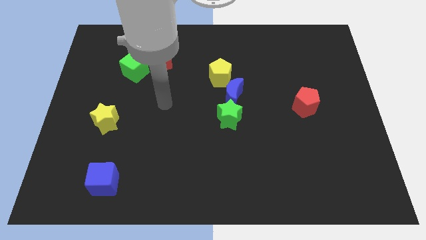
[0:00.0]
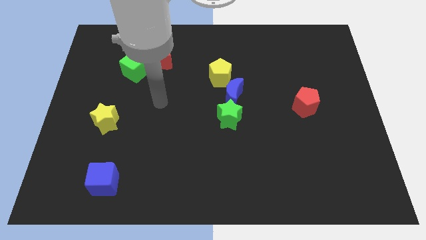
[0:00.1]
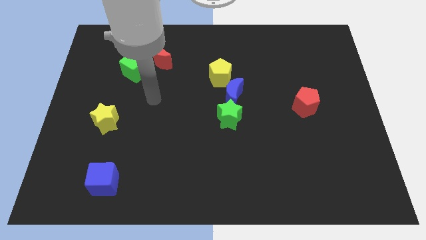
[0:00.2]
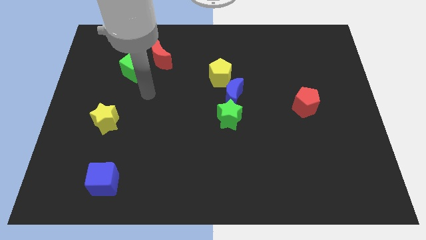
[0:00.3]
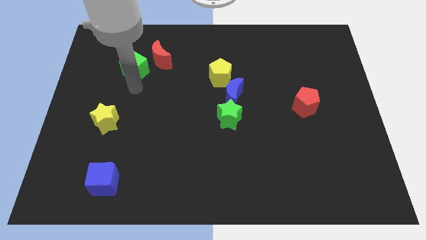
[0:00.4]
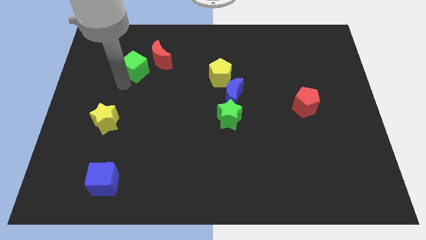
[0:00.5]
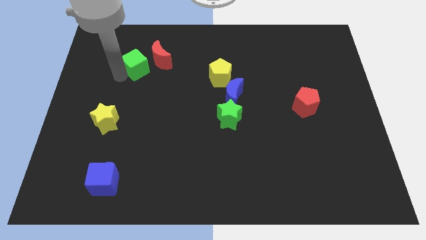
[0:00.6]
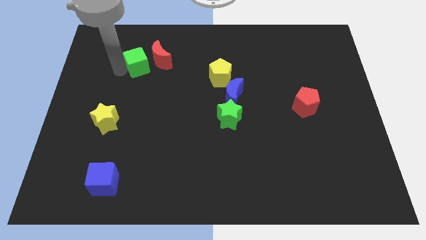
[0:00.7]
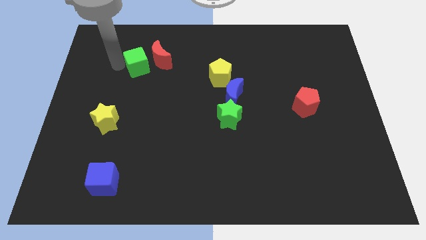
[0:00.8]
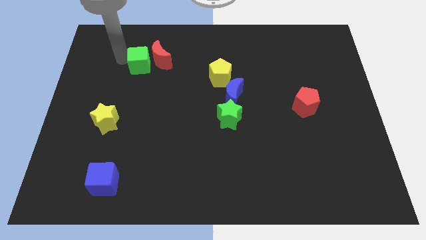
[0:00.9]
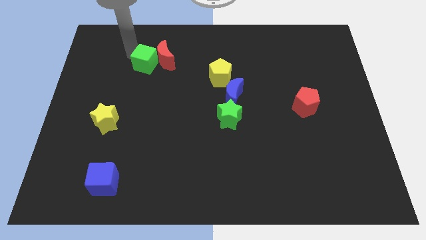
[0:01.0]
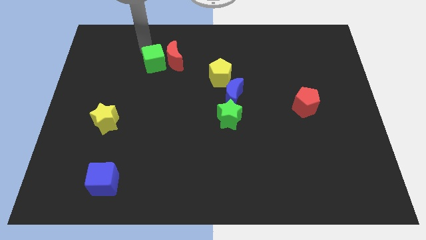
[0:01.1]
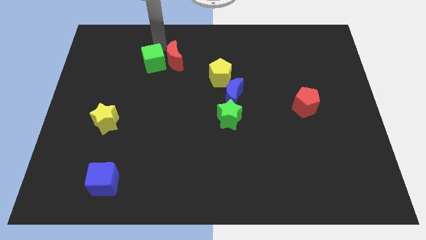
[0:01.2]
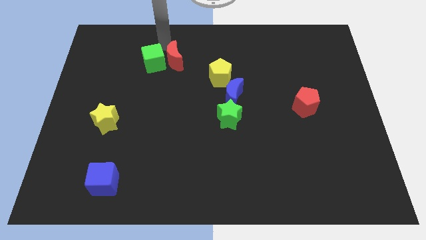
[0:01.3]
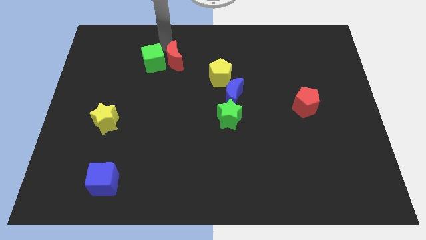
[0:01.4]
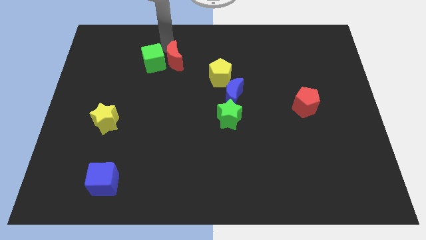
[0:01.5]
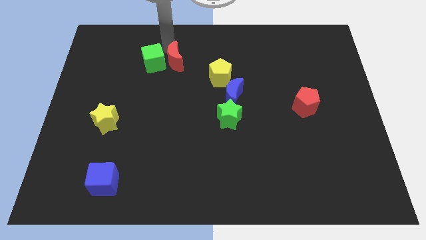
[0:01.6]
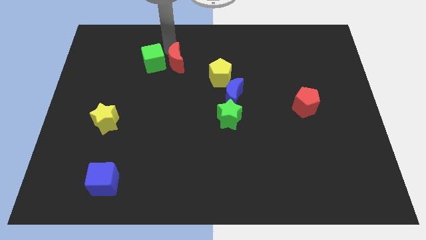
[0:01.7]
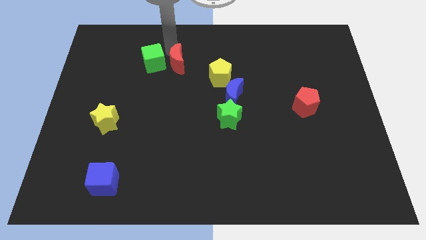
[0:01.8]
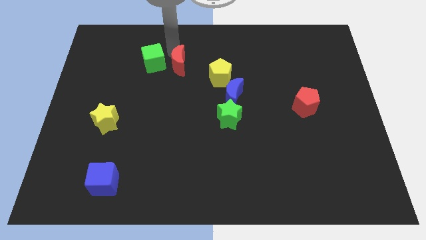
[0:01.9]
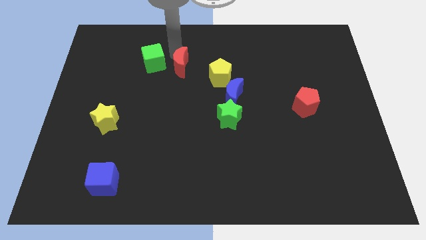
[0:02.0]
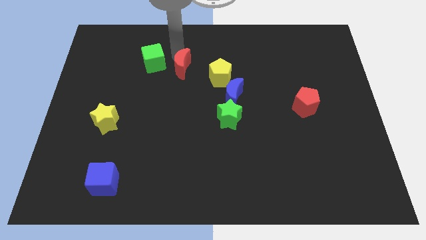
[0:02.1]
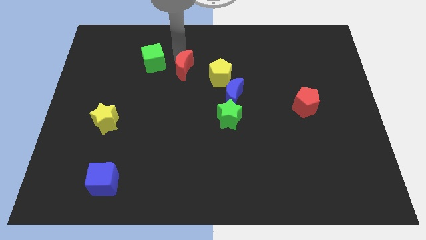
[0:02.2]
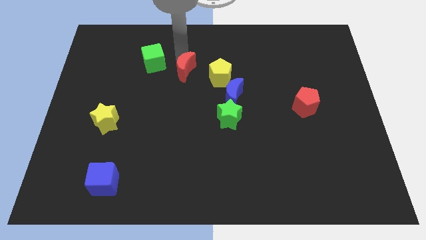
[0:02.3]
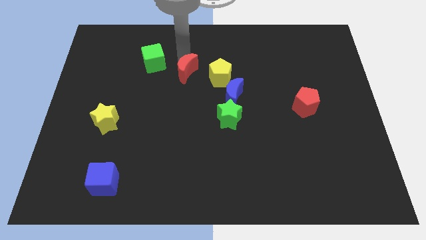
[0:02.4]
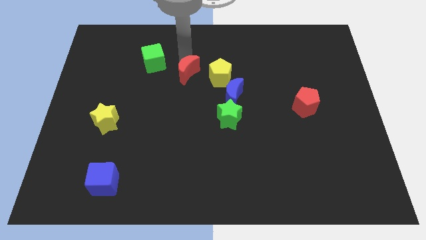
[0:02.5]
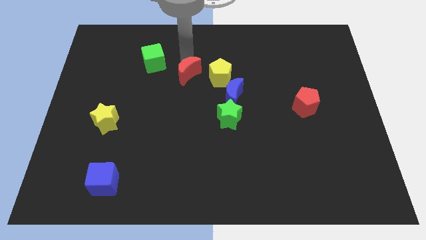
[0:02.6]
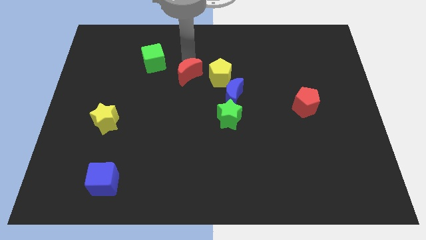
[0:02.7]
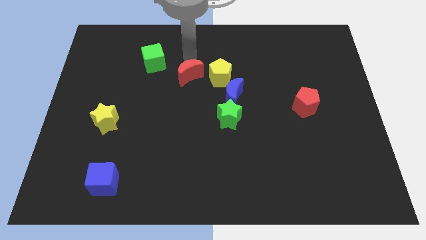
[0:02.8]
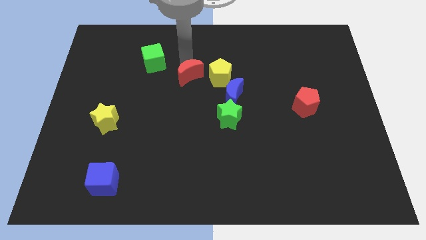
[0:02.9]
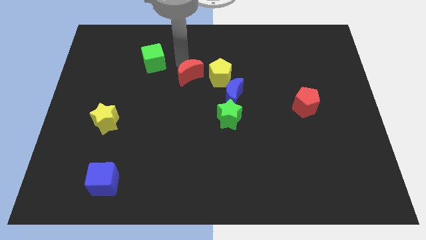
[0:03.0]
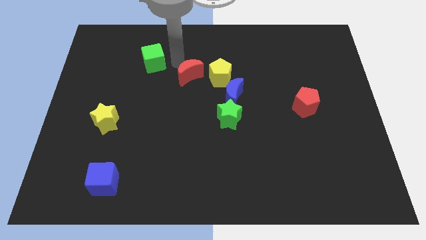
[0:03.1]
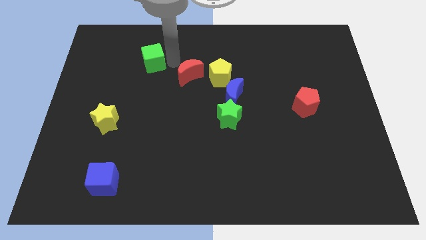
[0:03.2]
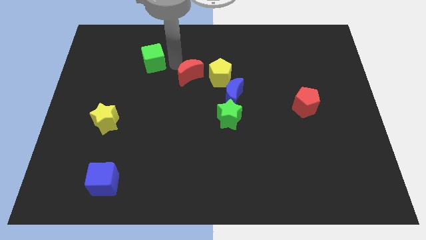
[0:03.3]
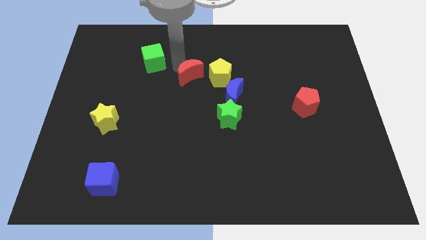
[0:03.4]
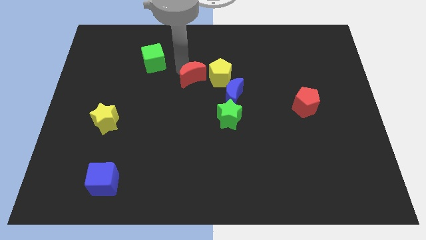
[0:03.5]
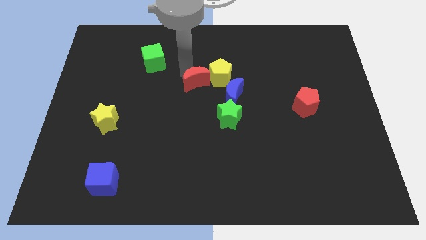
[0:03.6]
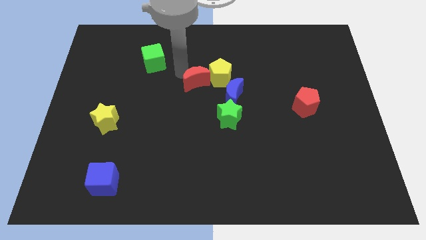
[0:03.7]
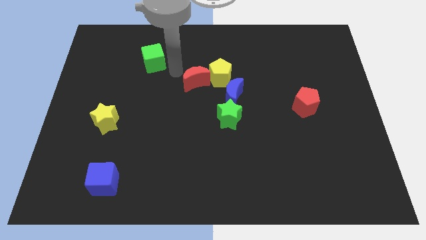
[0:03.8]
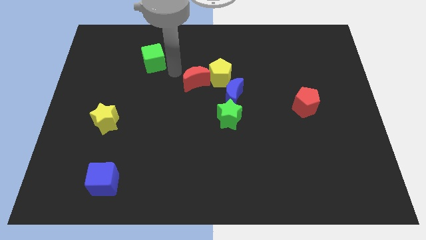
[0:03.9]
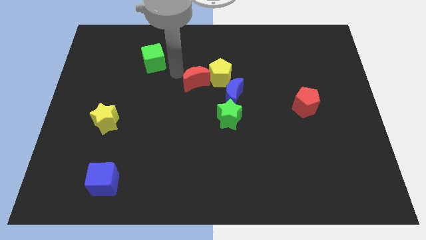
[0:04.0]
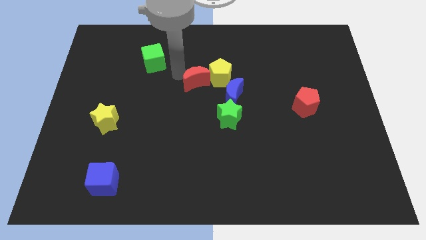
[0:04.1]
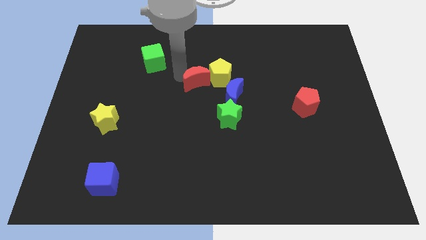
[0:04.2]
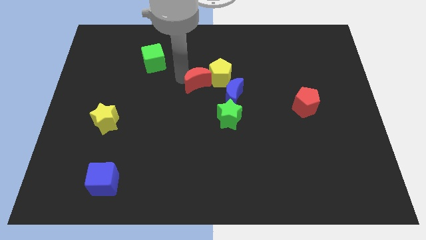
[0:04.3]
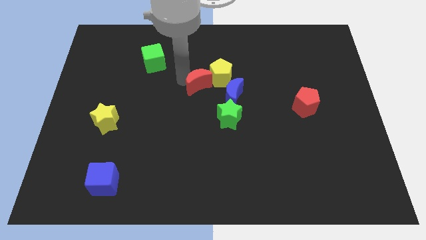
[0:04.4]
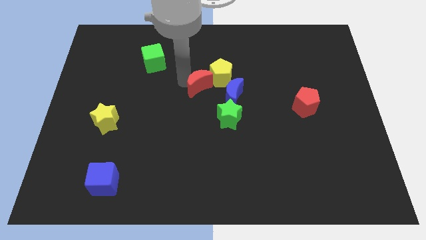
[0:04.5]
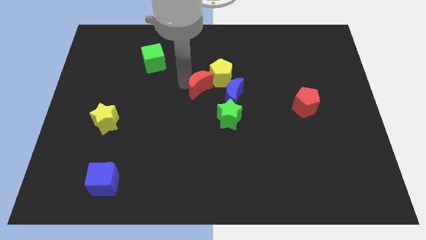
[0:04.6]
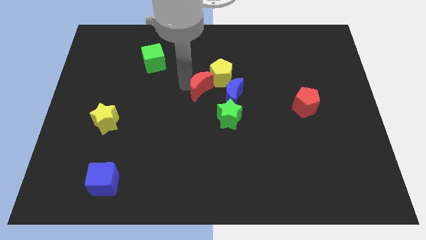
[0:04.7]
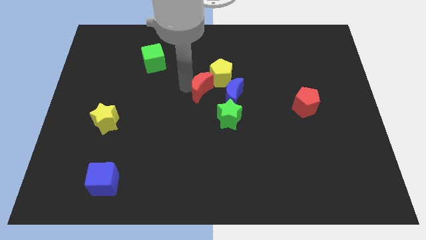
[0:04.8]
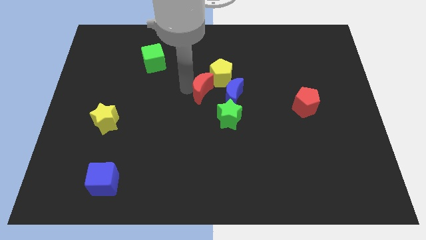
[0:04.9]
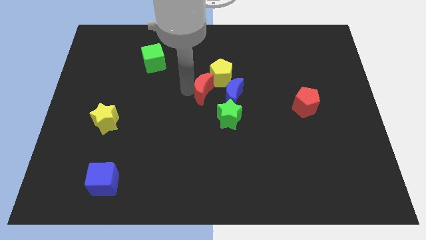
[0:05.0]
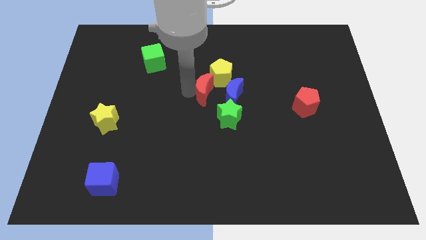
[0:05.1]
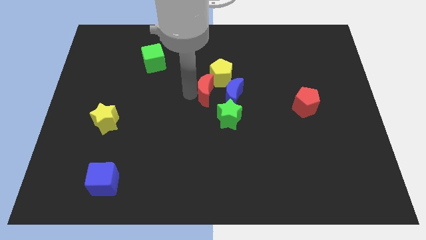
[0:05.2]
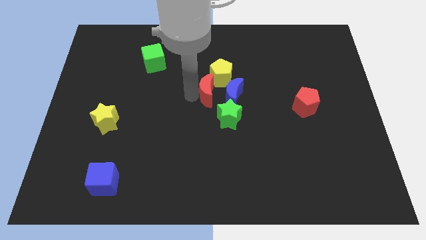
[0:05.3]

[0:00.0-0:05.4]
move the red moon to the blue moon

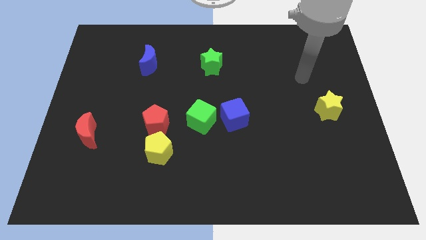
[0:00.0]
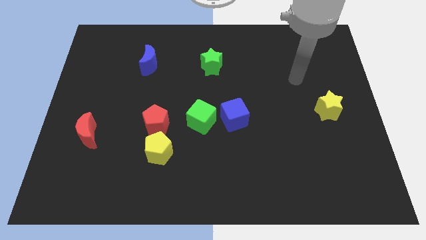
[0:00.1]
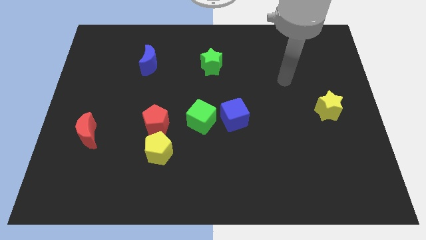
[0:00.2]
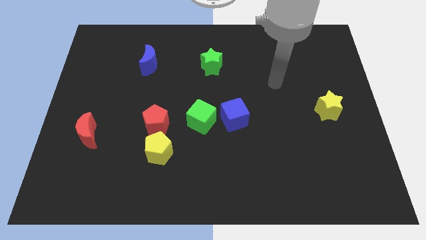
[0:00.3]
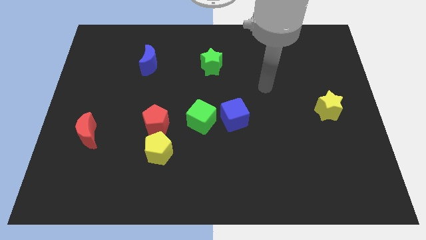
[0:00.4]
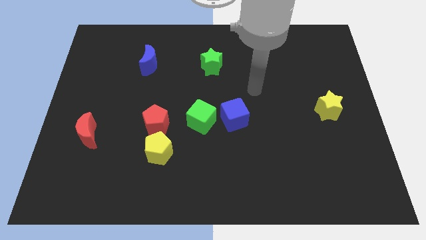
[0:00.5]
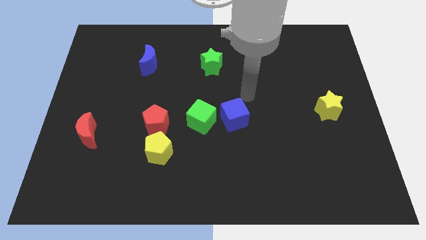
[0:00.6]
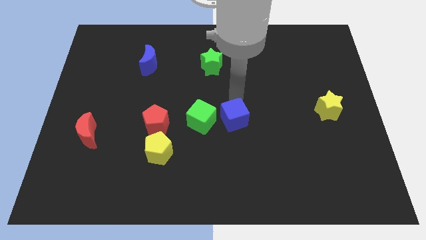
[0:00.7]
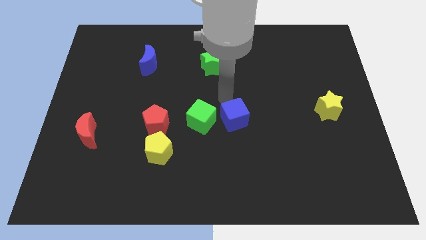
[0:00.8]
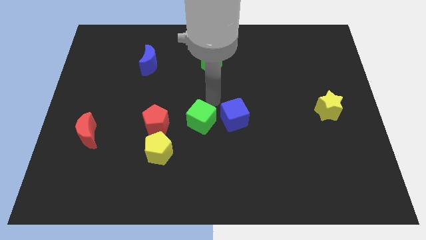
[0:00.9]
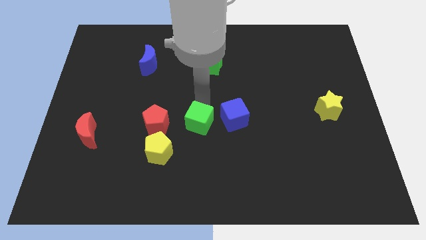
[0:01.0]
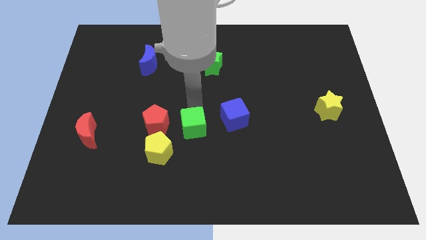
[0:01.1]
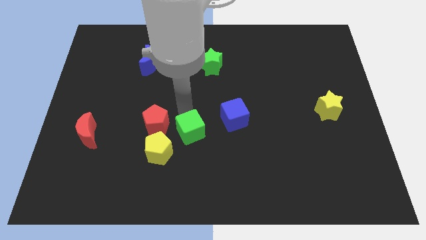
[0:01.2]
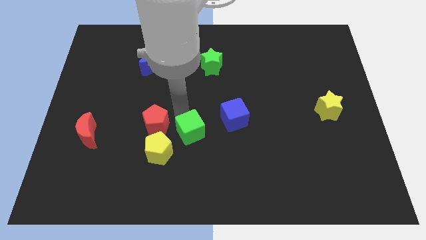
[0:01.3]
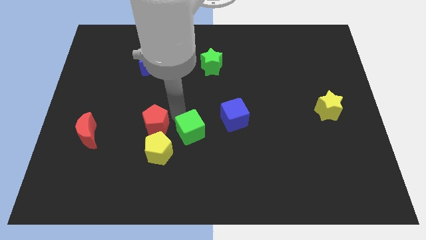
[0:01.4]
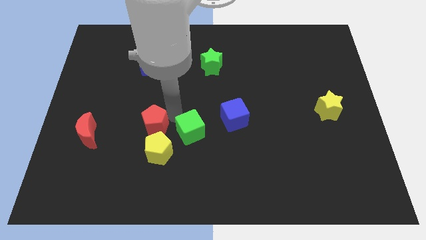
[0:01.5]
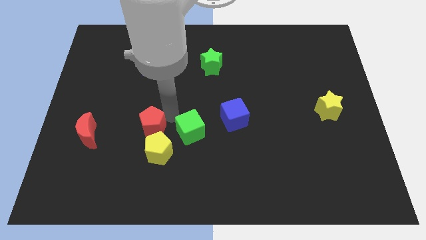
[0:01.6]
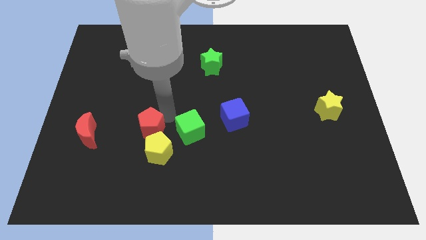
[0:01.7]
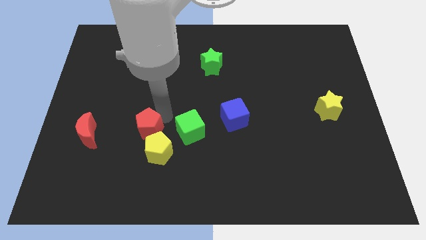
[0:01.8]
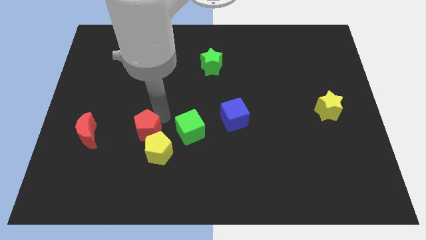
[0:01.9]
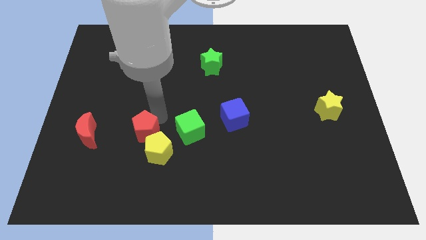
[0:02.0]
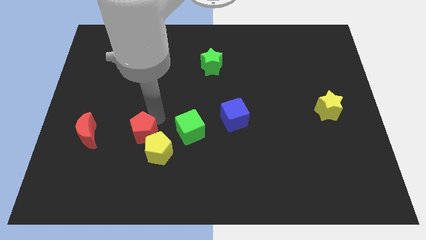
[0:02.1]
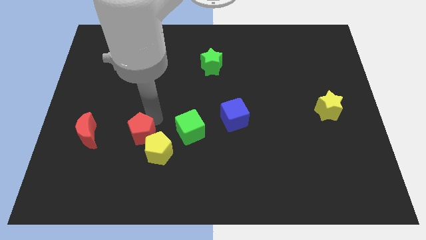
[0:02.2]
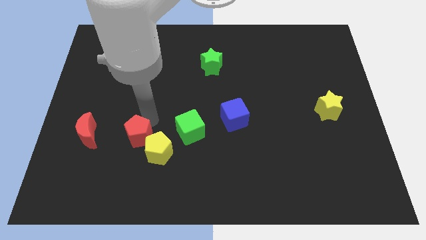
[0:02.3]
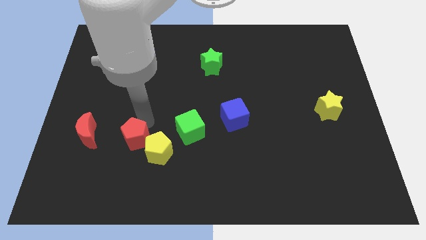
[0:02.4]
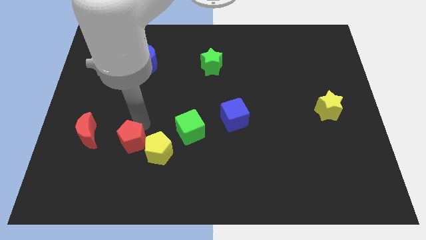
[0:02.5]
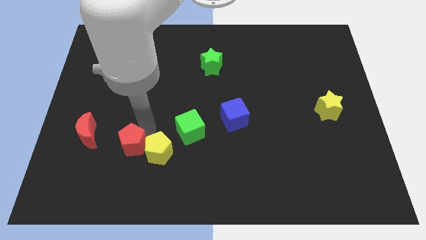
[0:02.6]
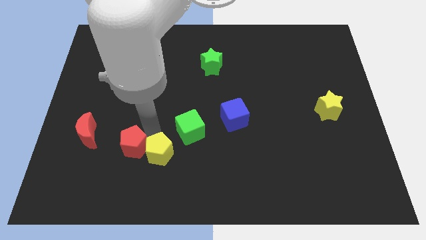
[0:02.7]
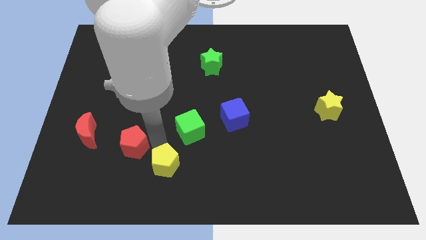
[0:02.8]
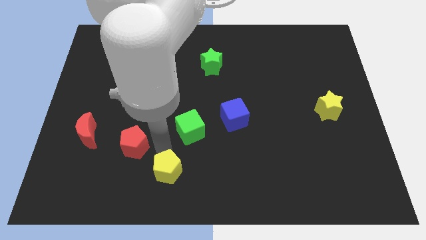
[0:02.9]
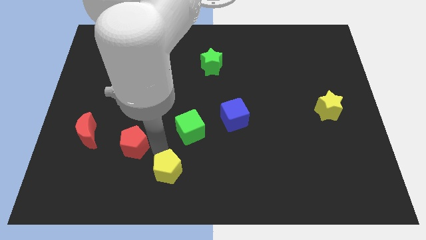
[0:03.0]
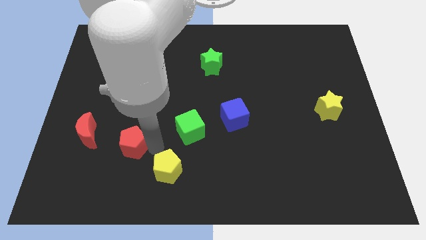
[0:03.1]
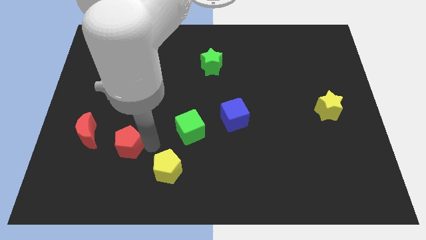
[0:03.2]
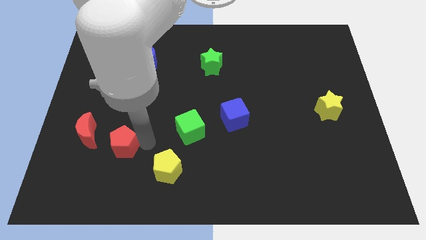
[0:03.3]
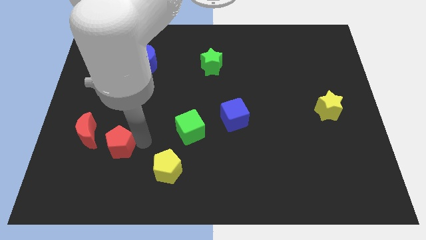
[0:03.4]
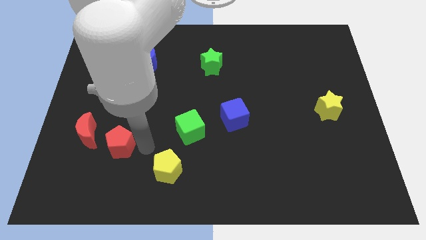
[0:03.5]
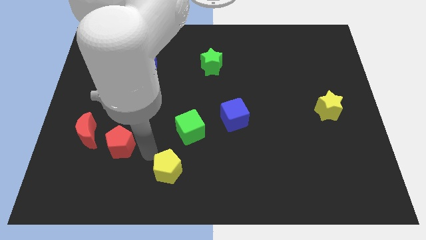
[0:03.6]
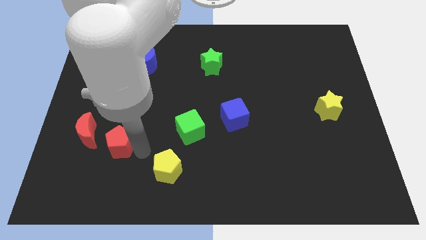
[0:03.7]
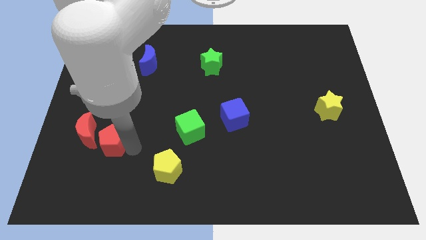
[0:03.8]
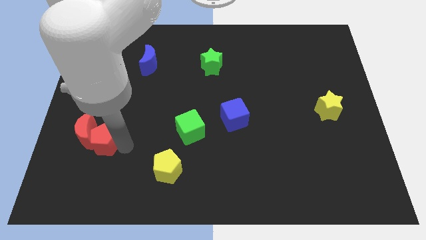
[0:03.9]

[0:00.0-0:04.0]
push the red pentagon towards the red moon
